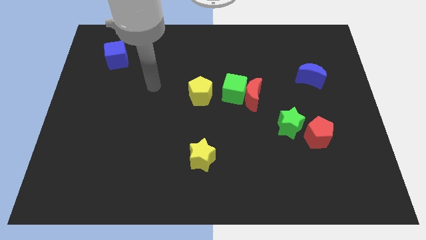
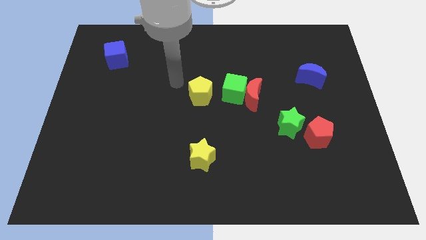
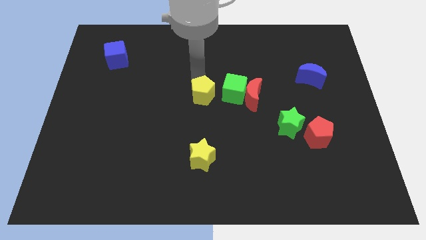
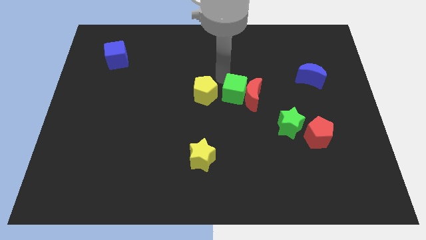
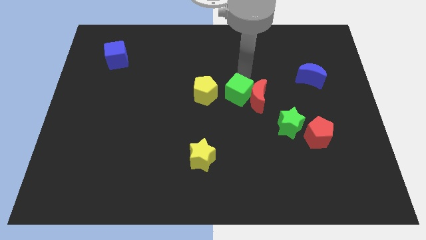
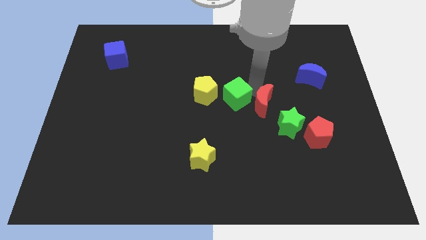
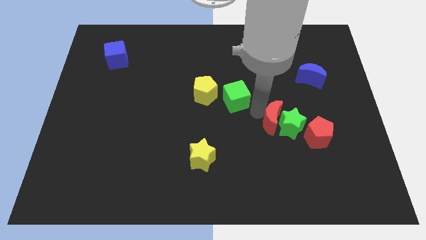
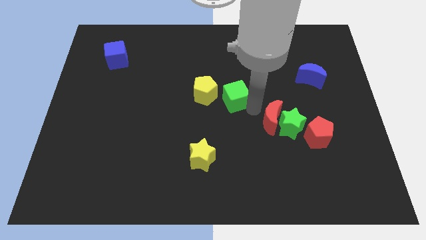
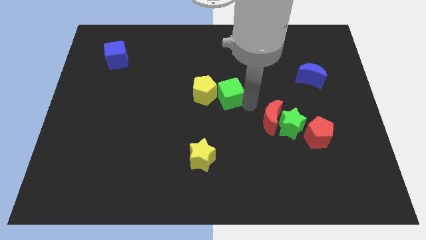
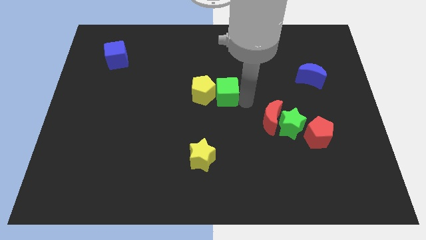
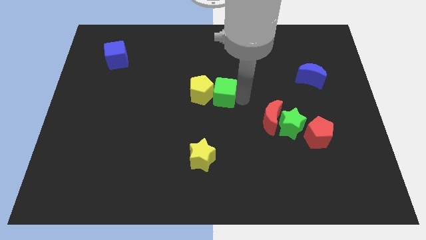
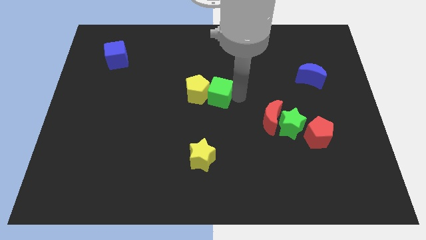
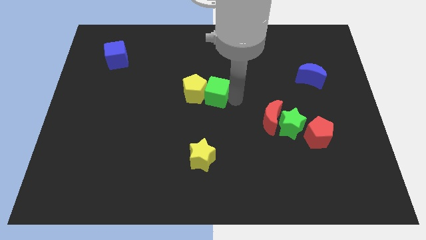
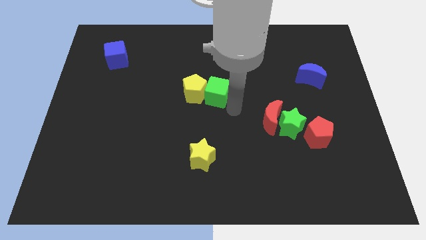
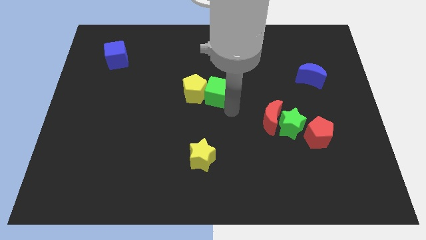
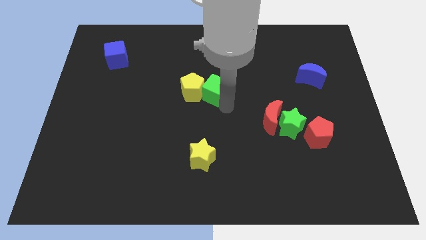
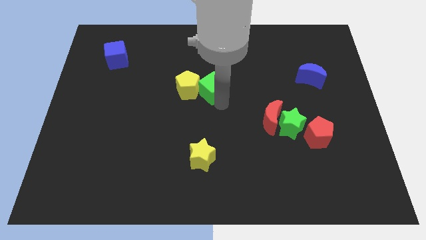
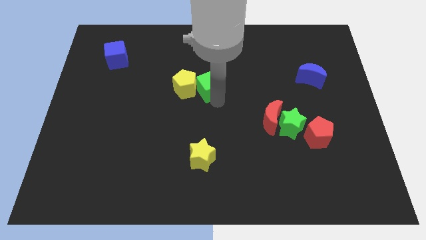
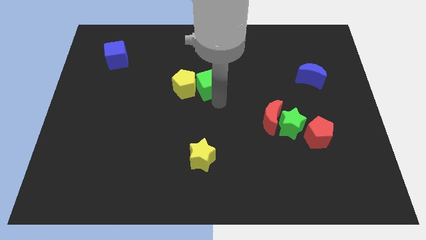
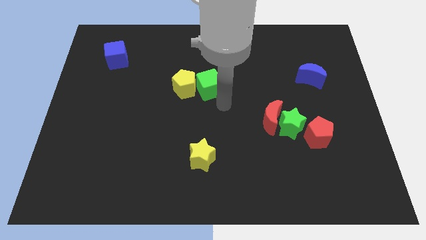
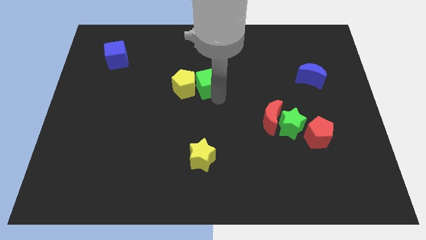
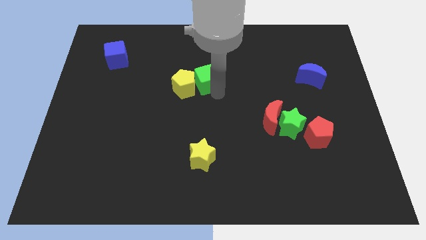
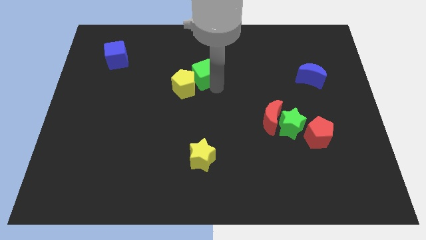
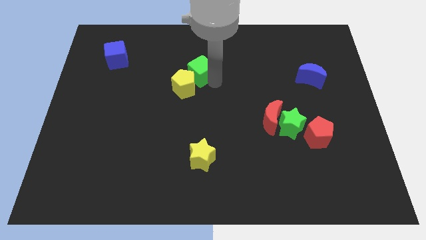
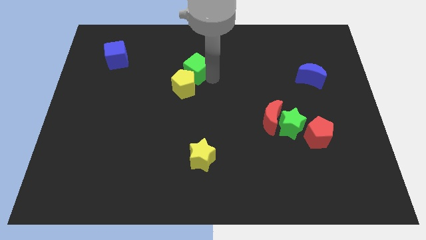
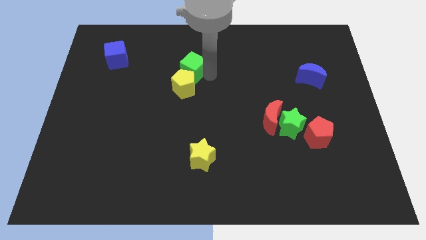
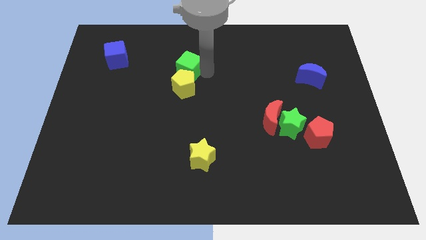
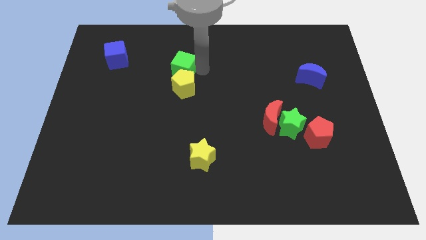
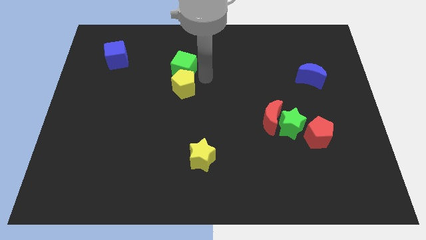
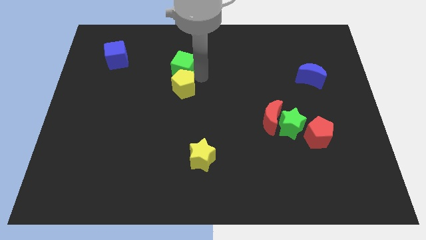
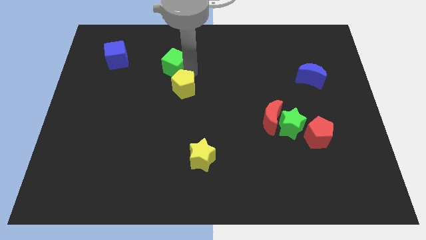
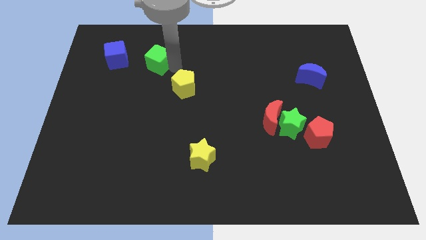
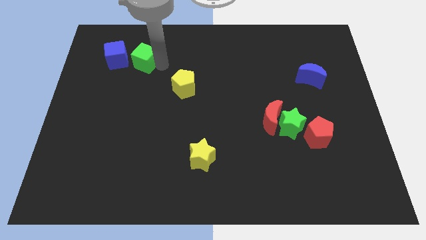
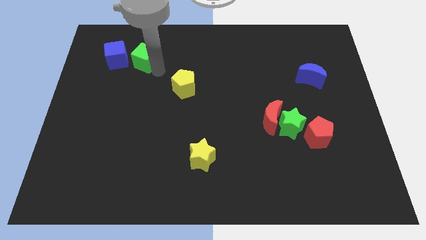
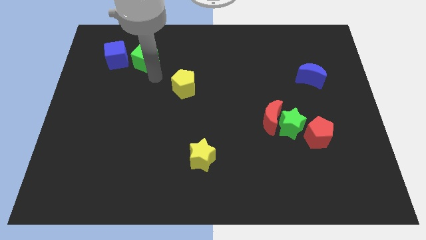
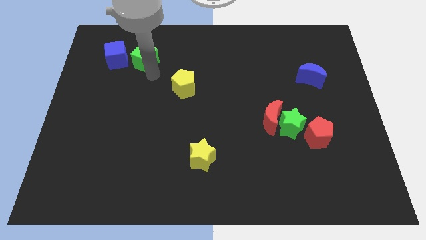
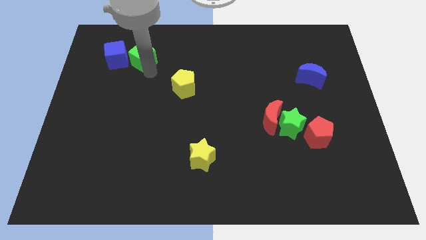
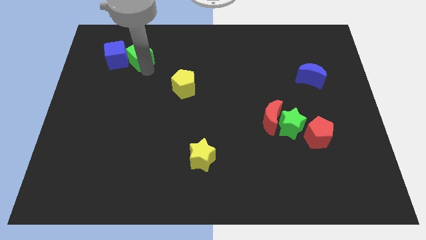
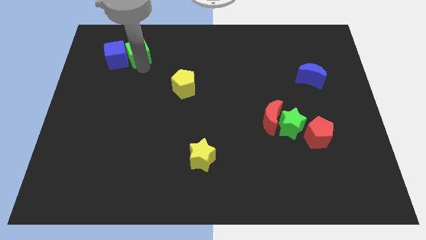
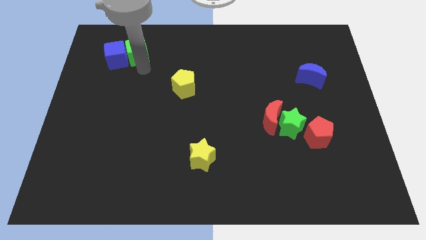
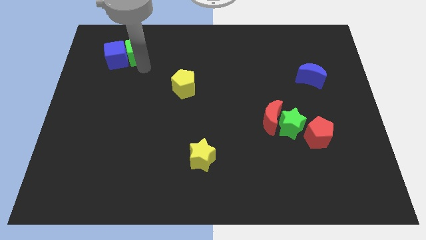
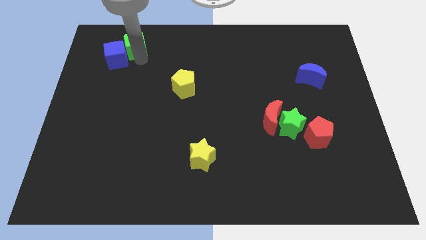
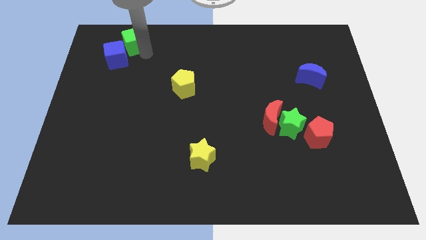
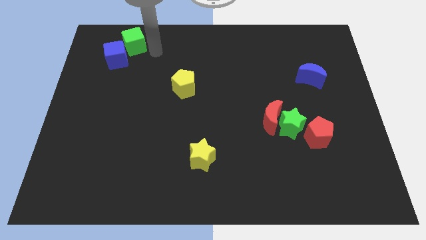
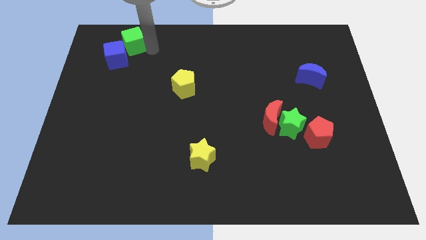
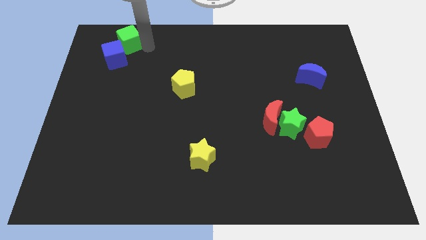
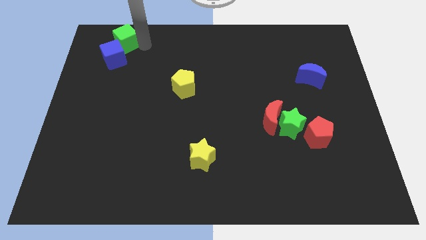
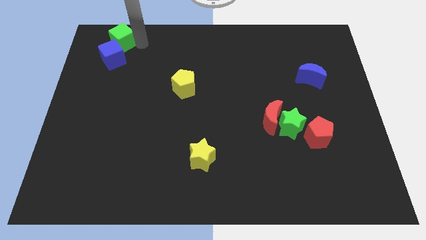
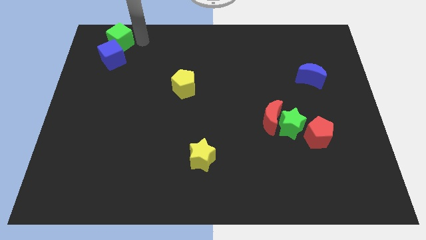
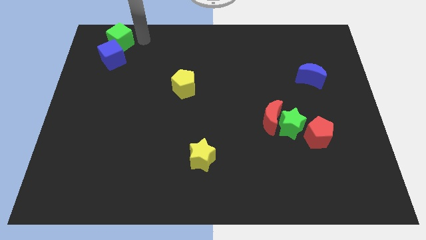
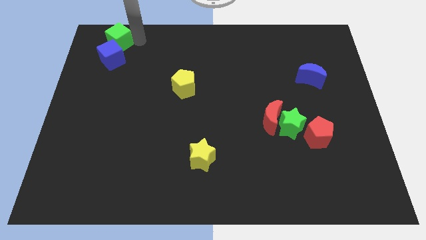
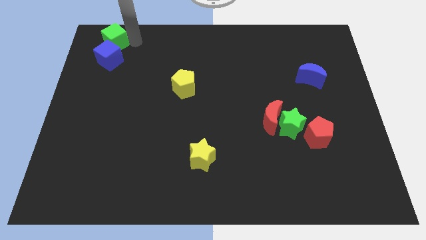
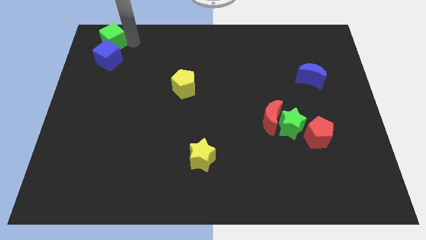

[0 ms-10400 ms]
slide the green cube to the top left of the board

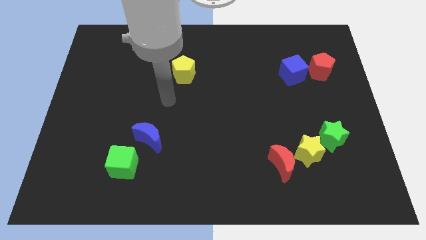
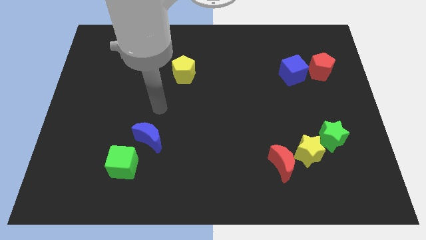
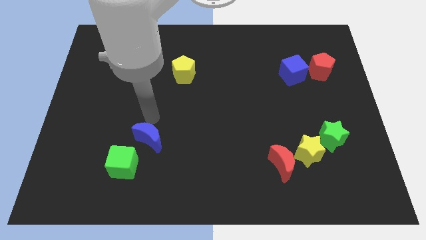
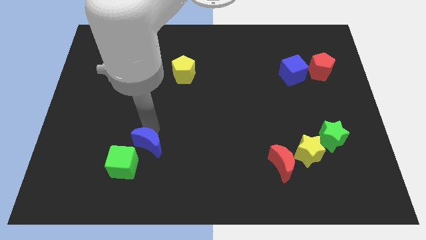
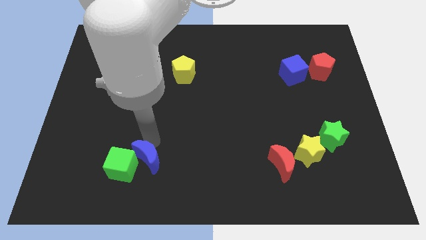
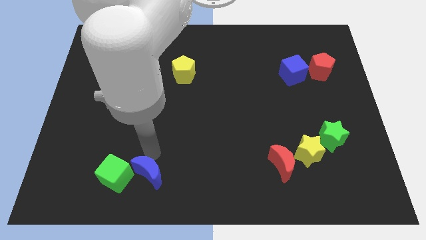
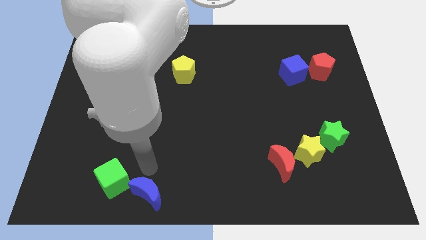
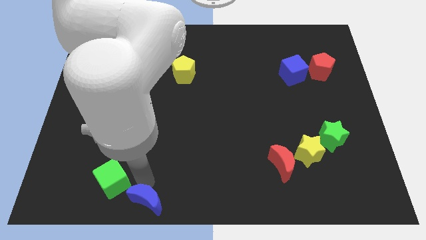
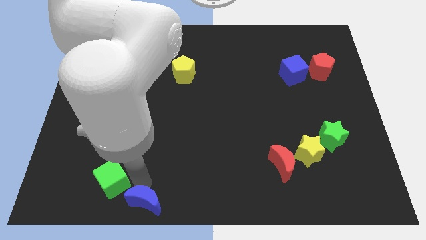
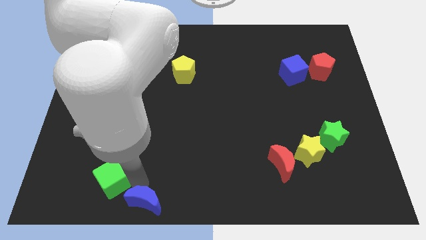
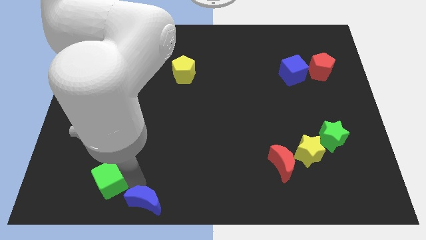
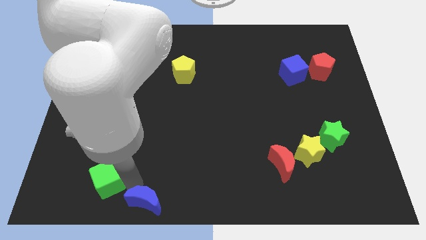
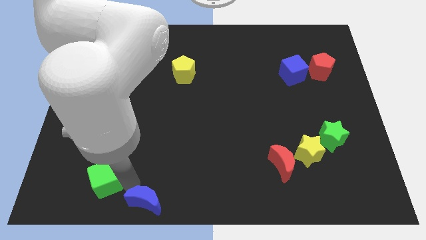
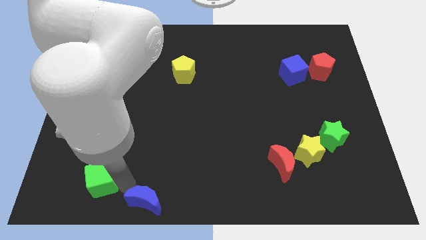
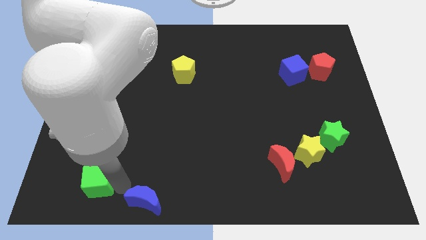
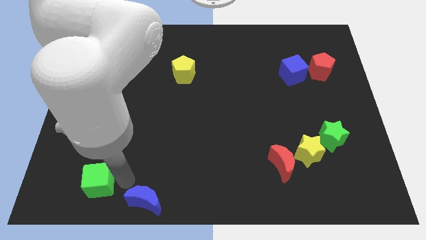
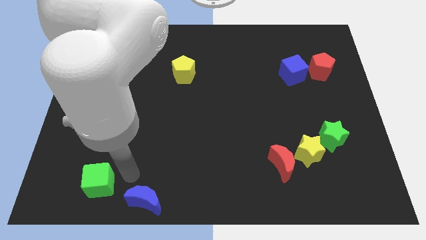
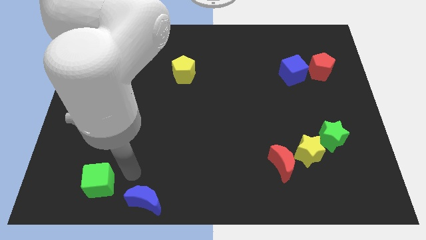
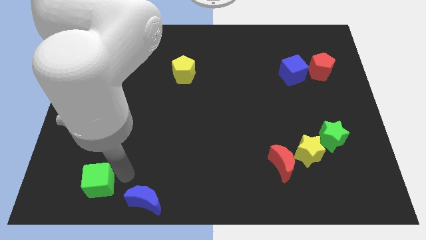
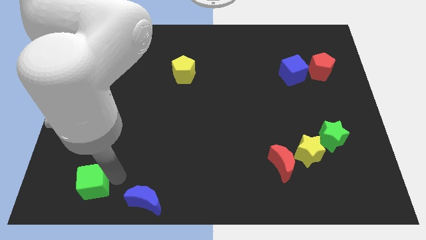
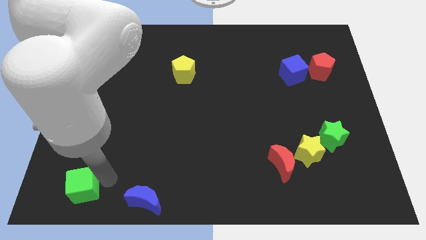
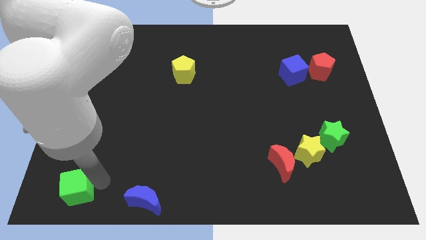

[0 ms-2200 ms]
slide the green cube to the bottom left
